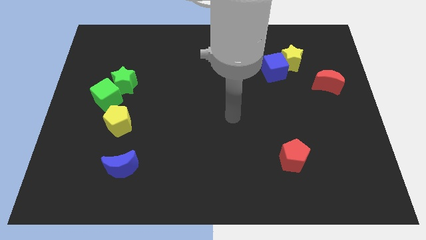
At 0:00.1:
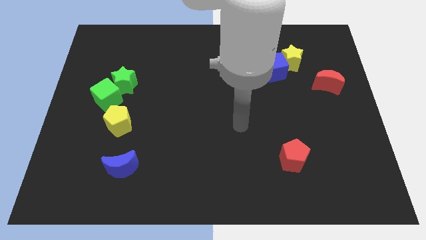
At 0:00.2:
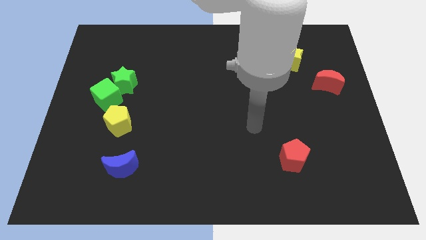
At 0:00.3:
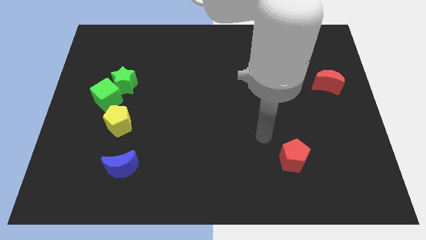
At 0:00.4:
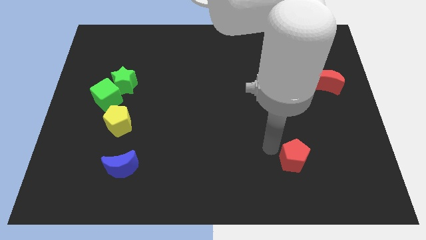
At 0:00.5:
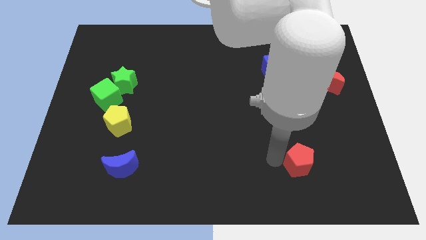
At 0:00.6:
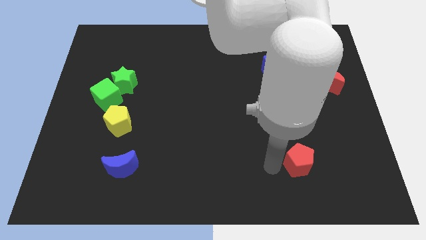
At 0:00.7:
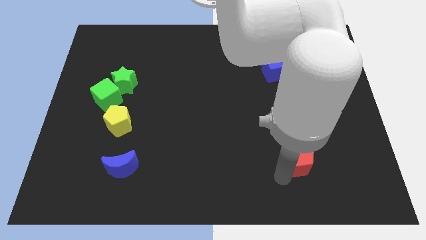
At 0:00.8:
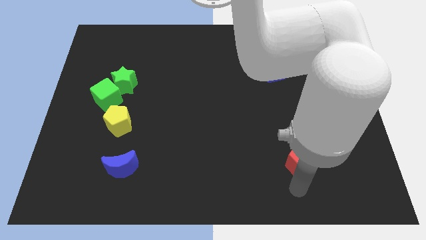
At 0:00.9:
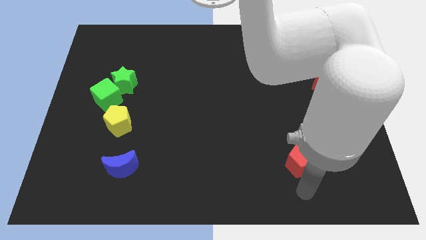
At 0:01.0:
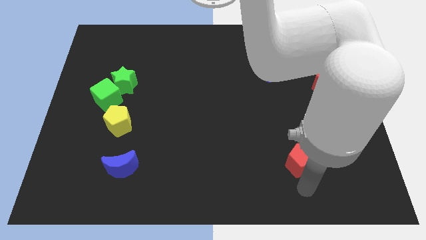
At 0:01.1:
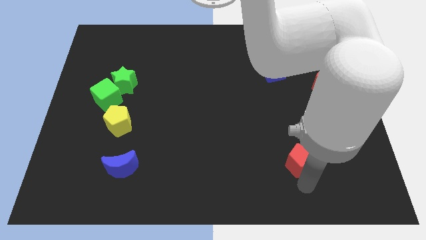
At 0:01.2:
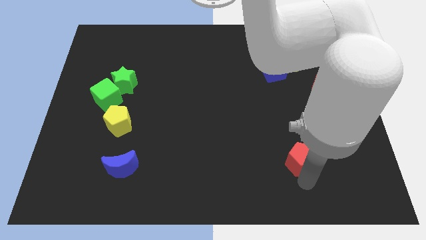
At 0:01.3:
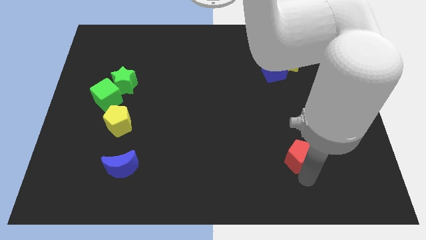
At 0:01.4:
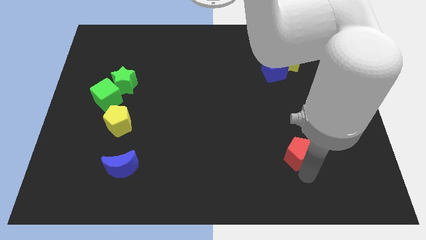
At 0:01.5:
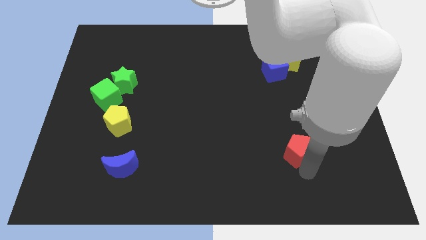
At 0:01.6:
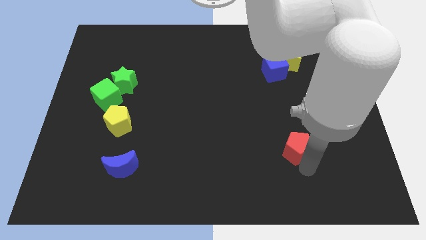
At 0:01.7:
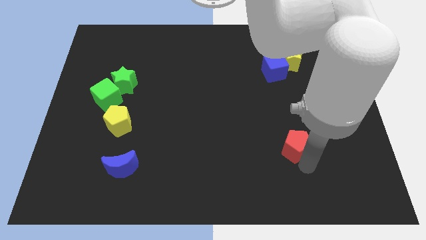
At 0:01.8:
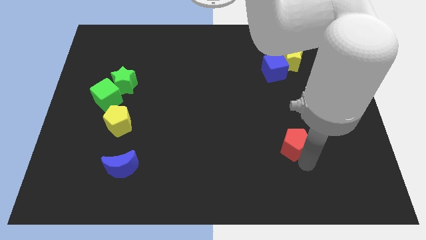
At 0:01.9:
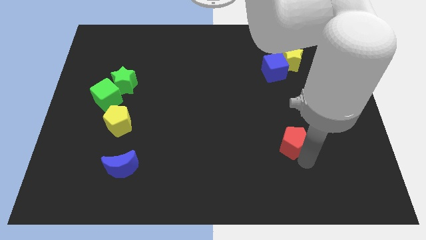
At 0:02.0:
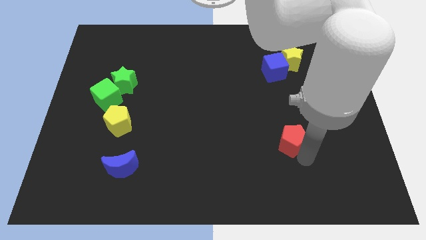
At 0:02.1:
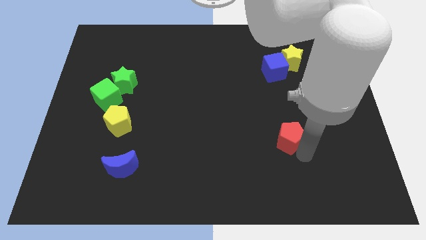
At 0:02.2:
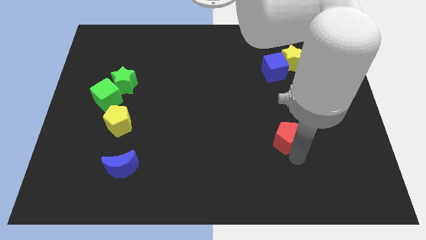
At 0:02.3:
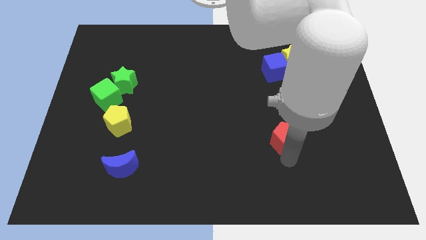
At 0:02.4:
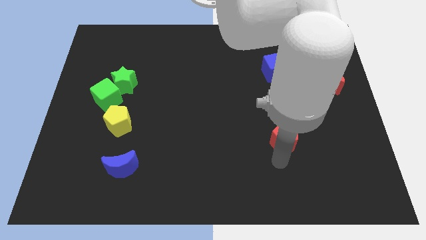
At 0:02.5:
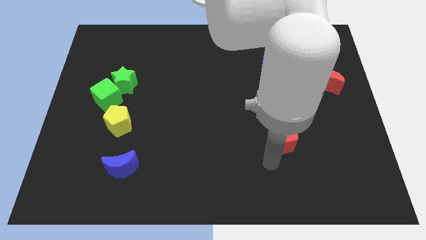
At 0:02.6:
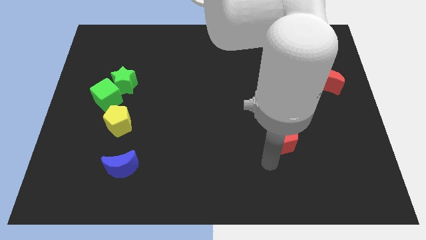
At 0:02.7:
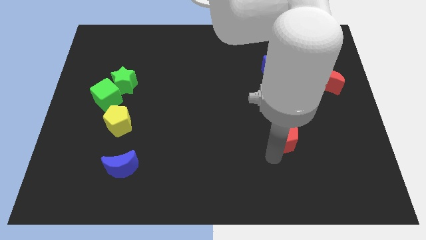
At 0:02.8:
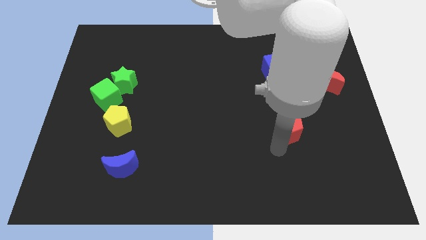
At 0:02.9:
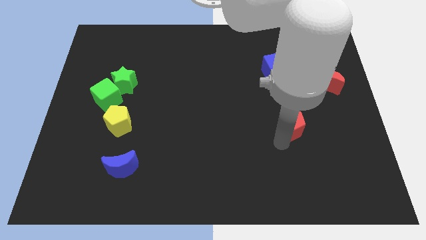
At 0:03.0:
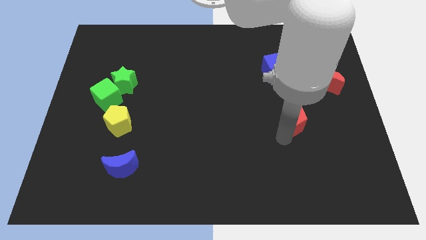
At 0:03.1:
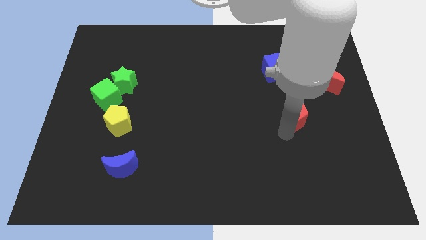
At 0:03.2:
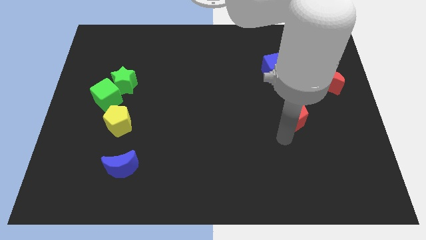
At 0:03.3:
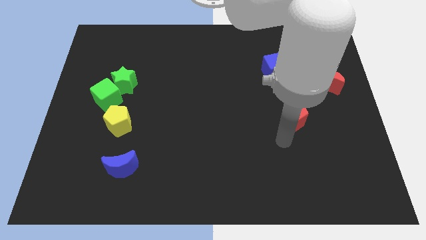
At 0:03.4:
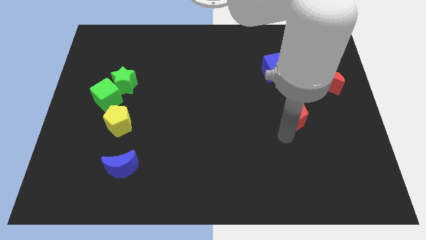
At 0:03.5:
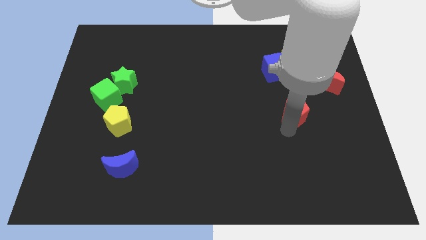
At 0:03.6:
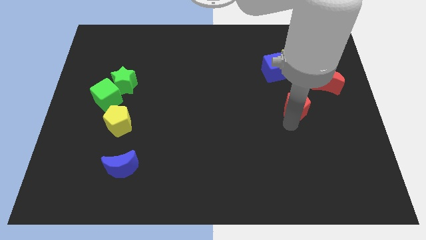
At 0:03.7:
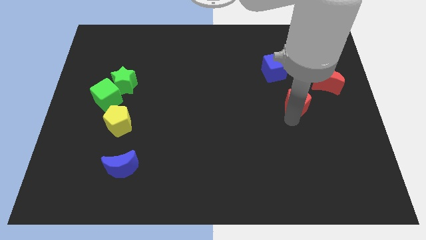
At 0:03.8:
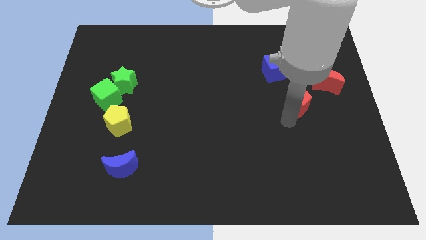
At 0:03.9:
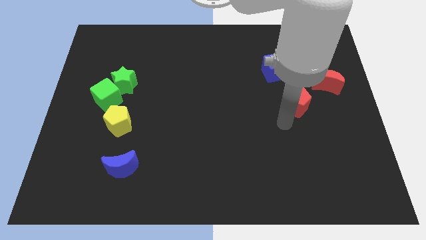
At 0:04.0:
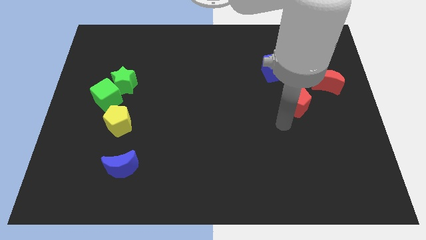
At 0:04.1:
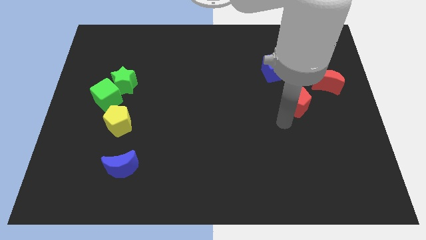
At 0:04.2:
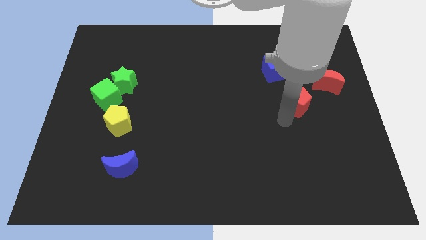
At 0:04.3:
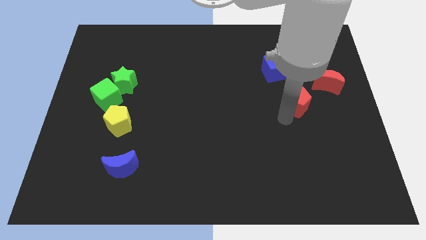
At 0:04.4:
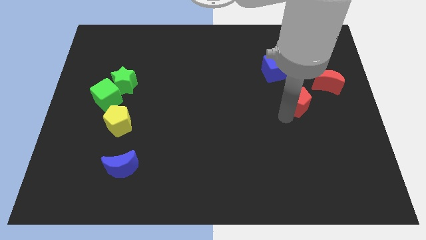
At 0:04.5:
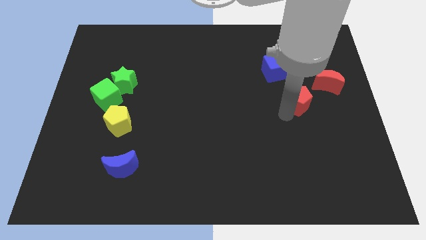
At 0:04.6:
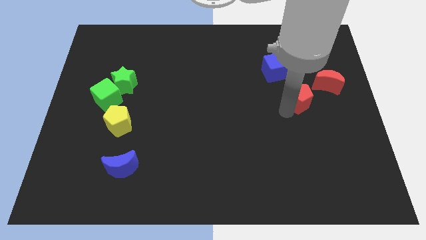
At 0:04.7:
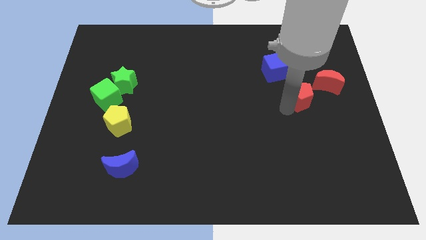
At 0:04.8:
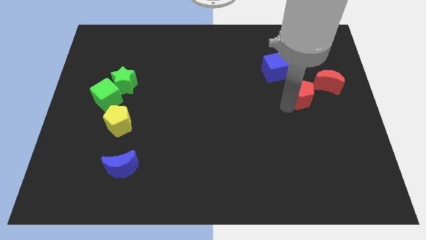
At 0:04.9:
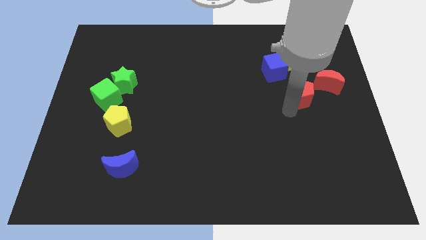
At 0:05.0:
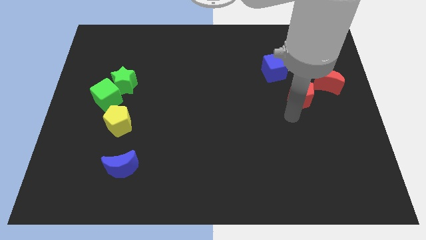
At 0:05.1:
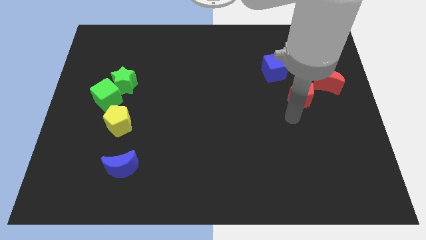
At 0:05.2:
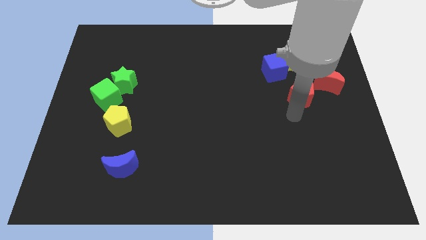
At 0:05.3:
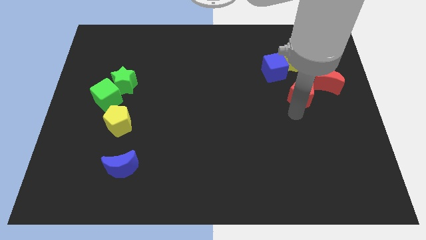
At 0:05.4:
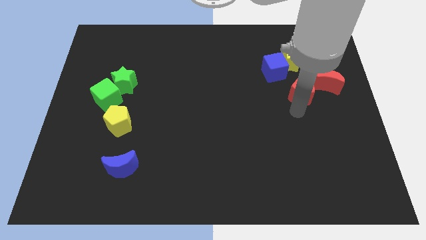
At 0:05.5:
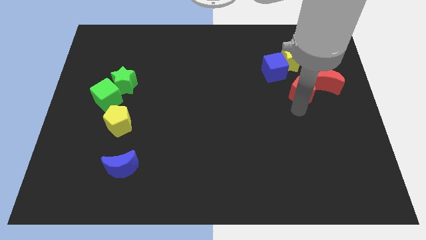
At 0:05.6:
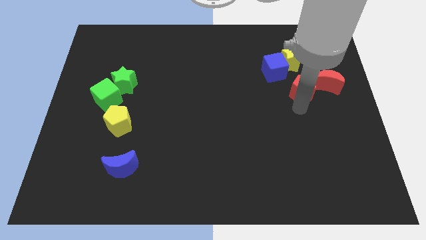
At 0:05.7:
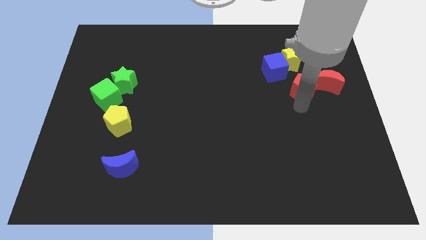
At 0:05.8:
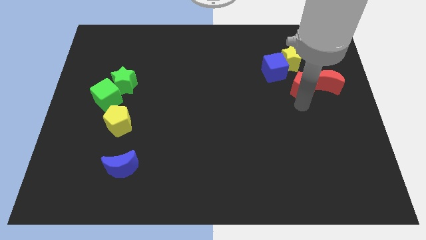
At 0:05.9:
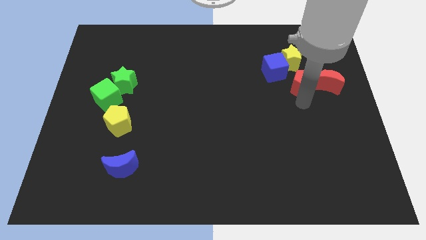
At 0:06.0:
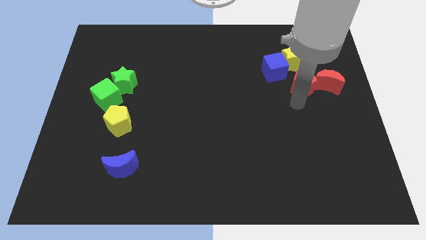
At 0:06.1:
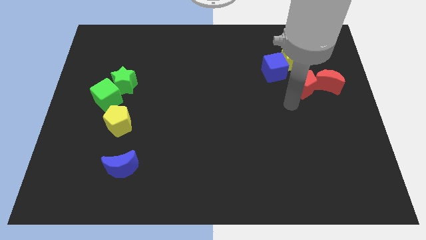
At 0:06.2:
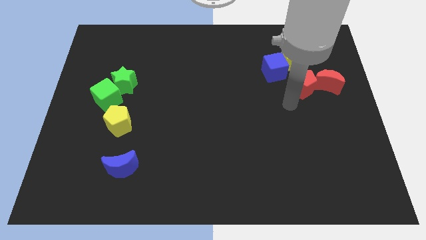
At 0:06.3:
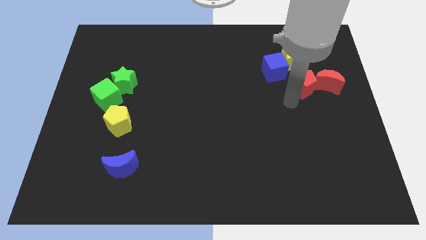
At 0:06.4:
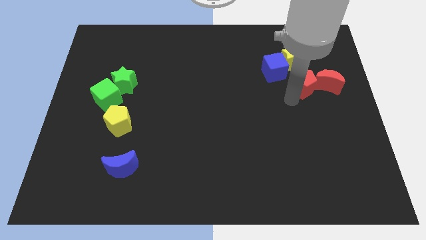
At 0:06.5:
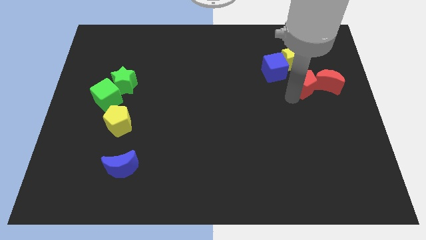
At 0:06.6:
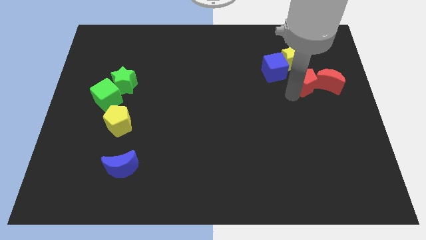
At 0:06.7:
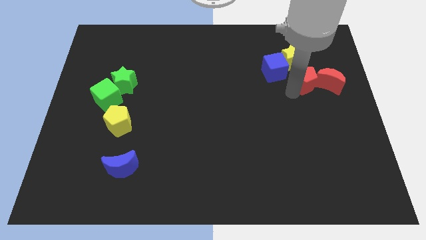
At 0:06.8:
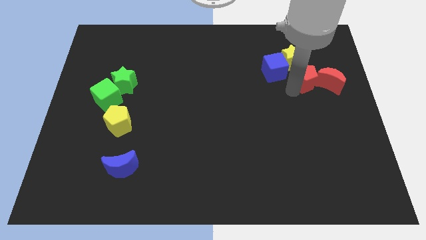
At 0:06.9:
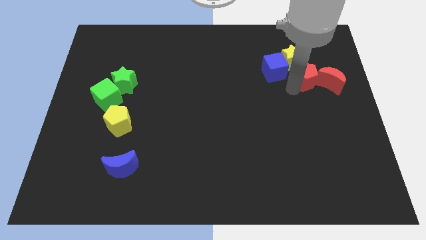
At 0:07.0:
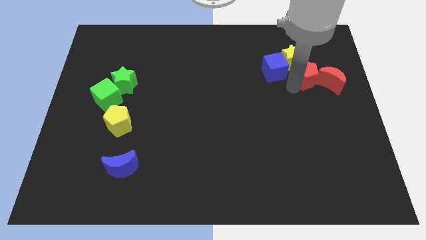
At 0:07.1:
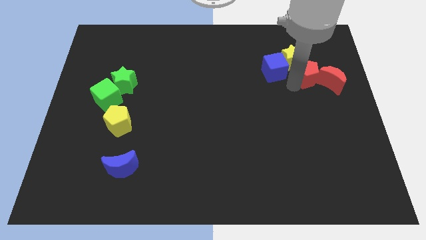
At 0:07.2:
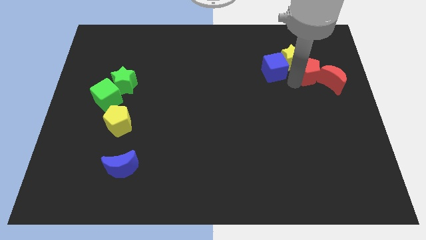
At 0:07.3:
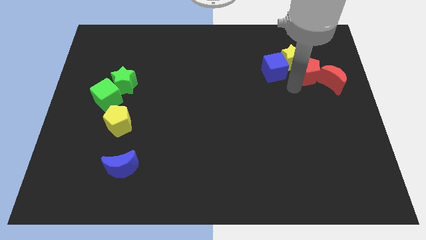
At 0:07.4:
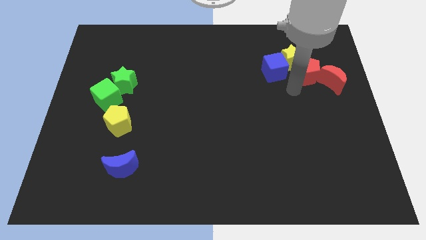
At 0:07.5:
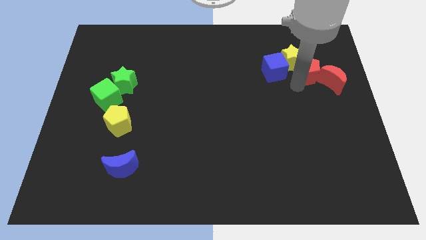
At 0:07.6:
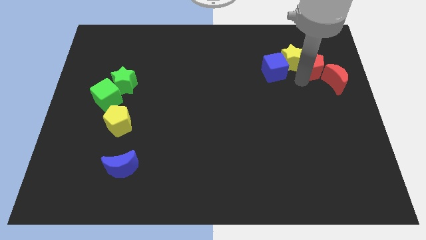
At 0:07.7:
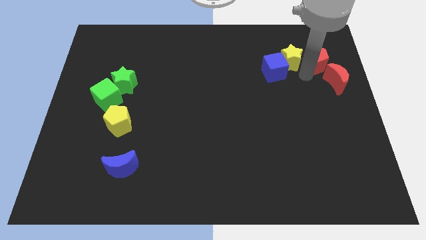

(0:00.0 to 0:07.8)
move the red pentagon to the top side of the red moon

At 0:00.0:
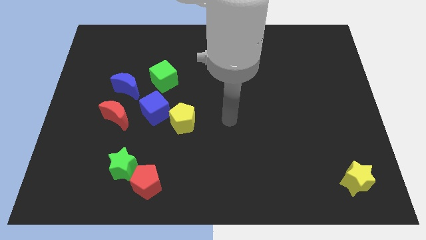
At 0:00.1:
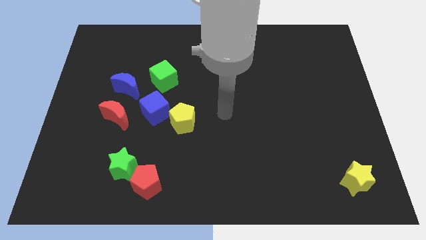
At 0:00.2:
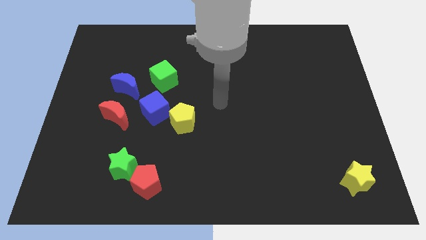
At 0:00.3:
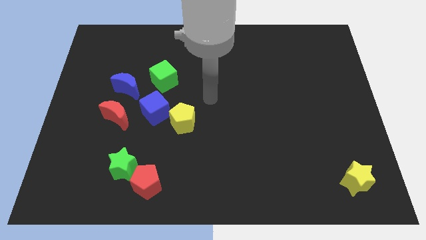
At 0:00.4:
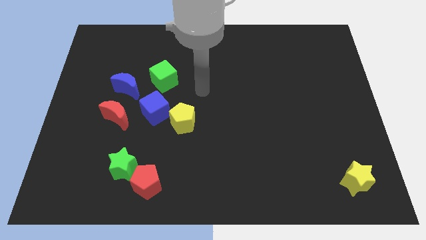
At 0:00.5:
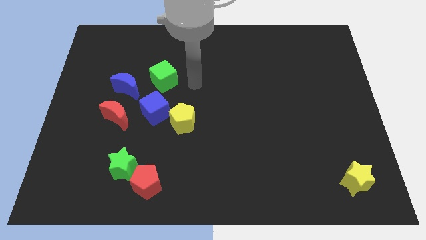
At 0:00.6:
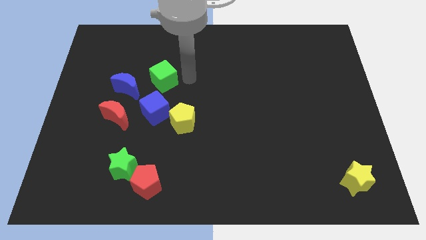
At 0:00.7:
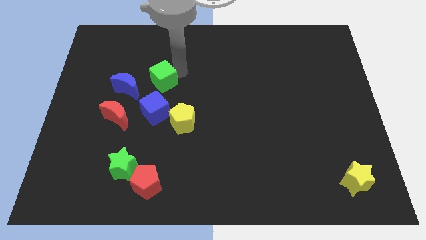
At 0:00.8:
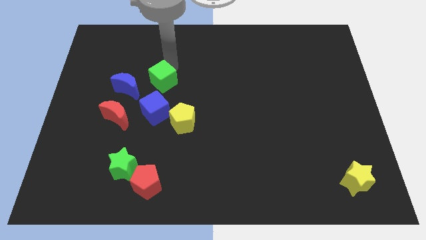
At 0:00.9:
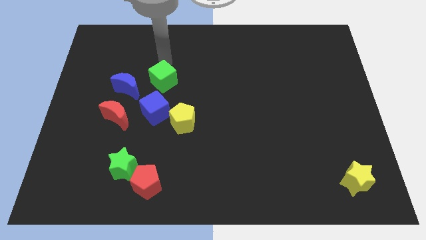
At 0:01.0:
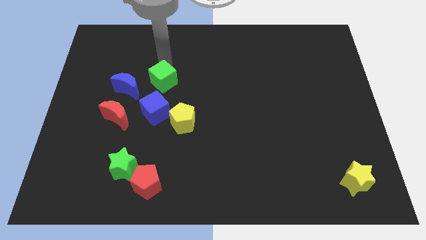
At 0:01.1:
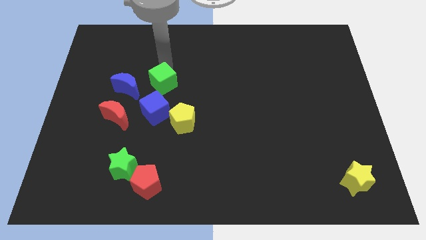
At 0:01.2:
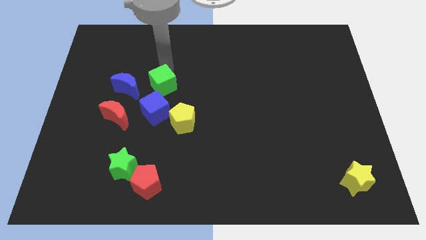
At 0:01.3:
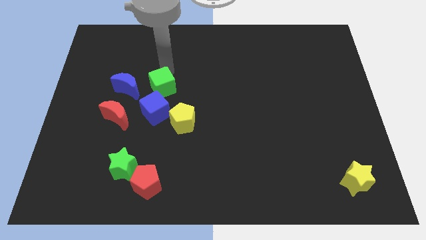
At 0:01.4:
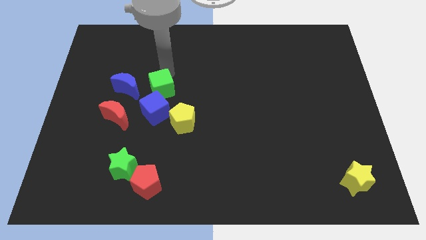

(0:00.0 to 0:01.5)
put the green cube to the top left side of the yellow pentagon
